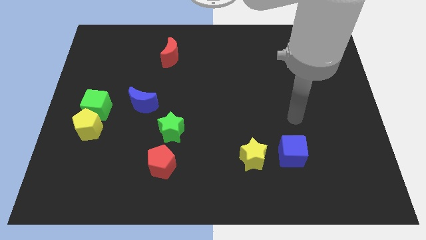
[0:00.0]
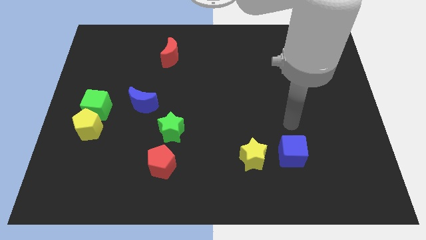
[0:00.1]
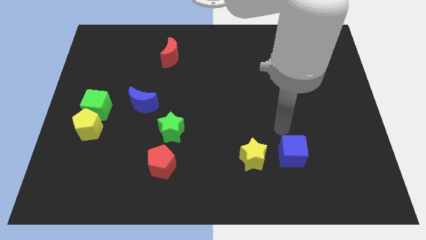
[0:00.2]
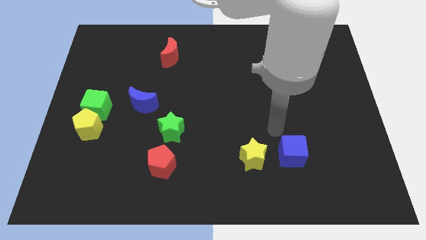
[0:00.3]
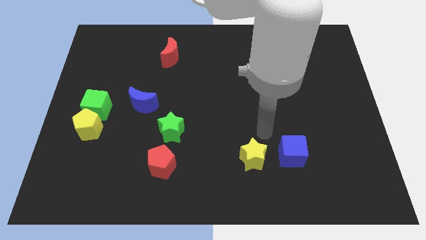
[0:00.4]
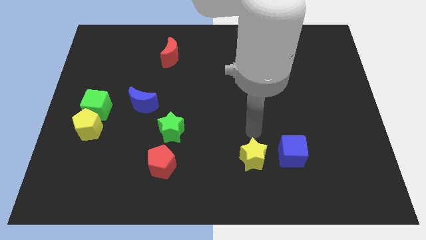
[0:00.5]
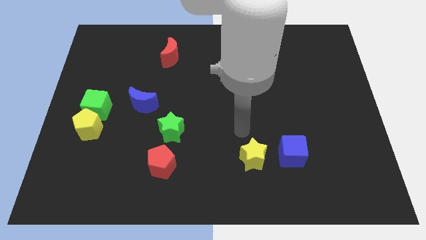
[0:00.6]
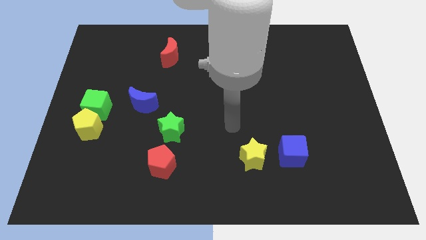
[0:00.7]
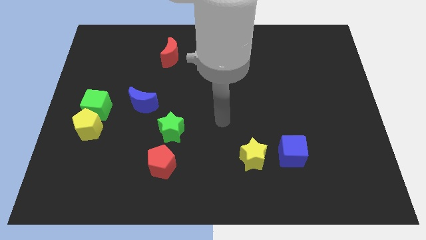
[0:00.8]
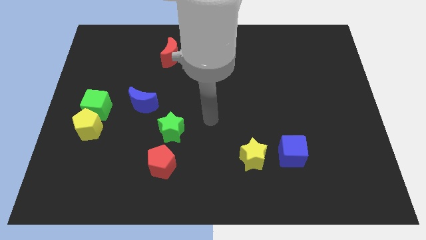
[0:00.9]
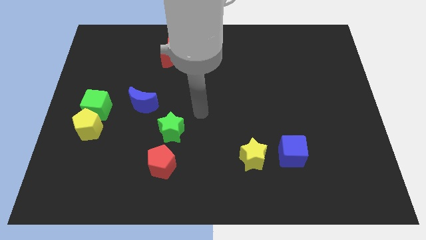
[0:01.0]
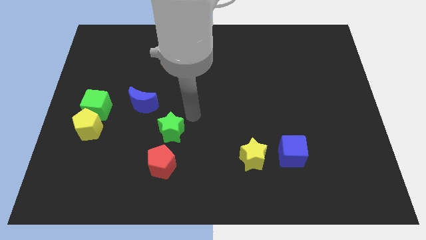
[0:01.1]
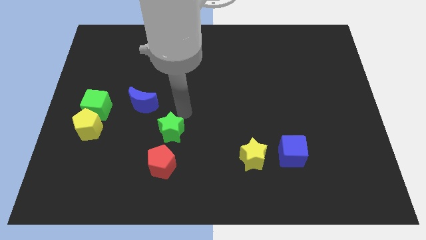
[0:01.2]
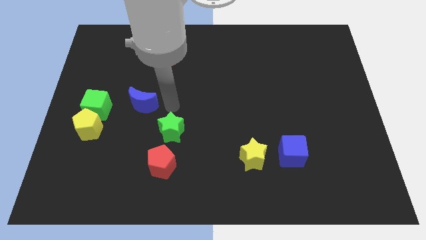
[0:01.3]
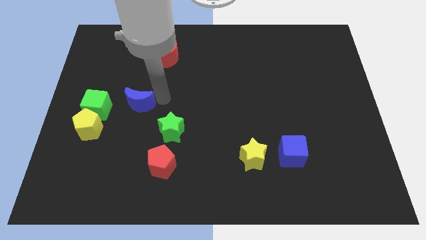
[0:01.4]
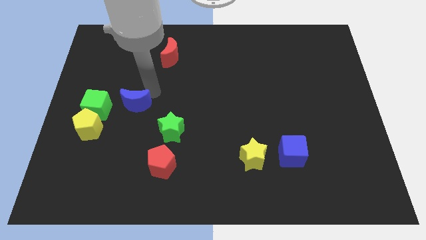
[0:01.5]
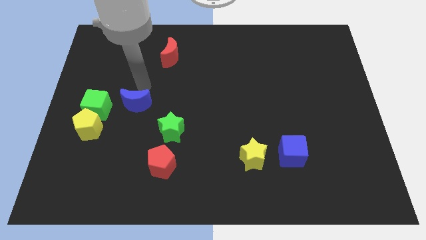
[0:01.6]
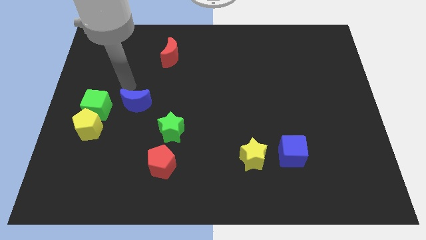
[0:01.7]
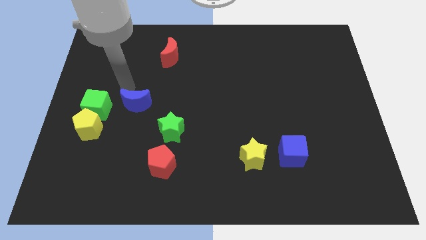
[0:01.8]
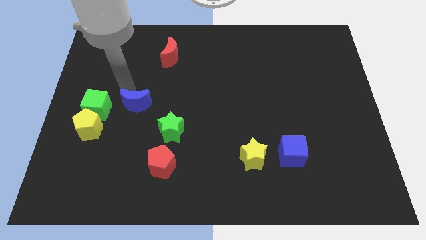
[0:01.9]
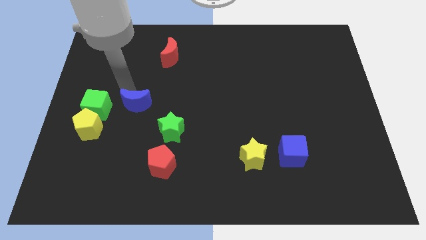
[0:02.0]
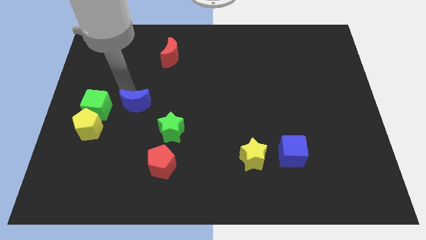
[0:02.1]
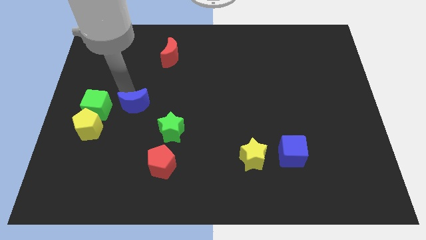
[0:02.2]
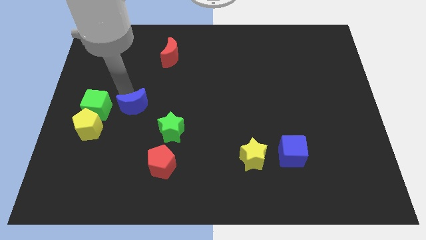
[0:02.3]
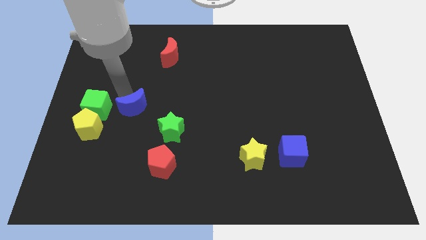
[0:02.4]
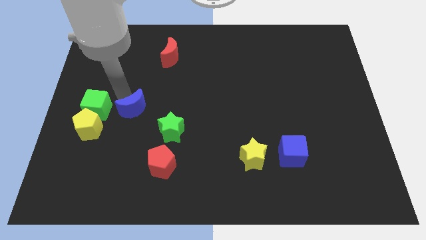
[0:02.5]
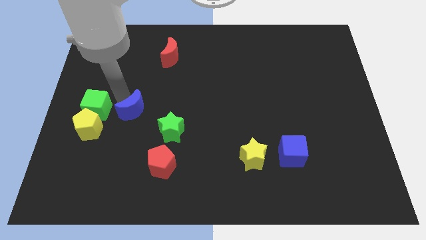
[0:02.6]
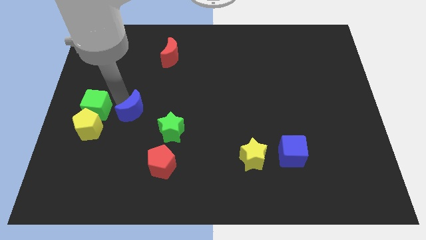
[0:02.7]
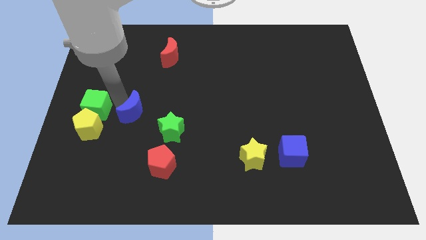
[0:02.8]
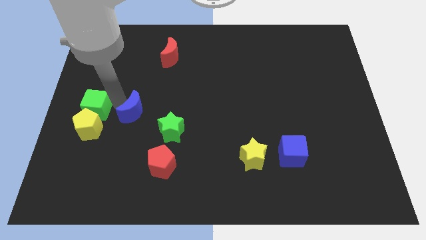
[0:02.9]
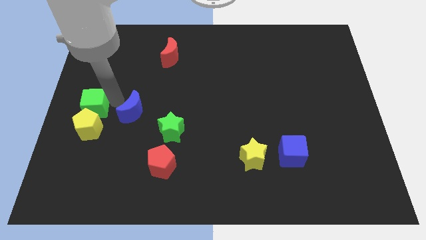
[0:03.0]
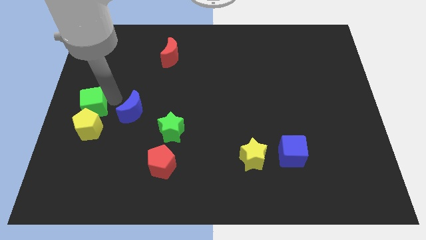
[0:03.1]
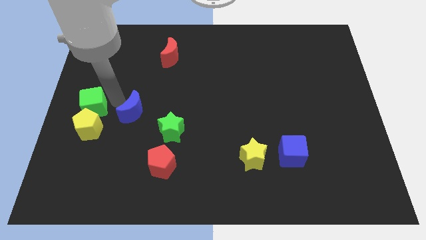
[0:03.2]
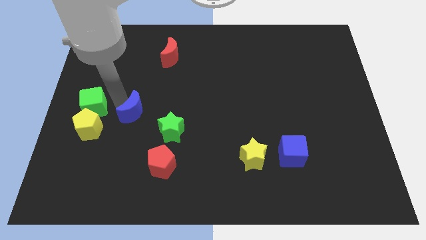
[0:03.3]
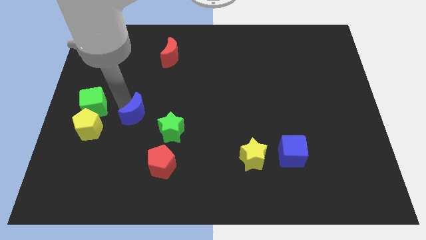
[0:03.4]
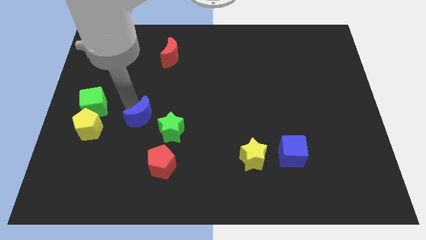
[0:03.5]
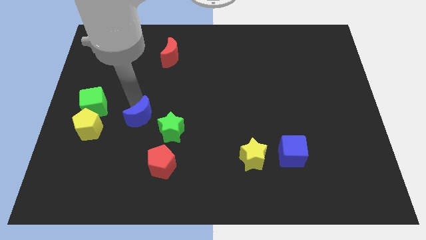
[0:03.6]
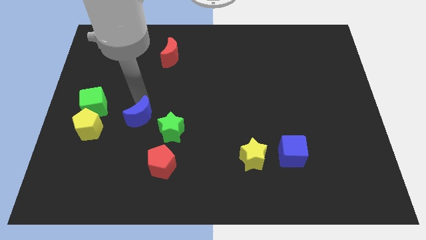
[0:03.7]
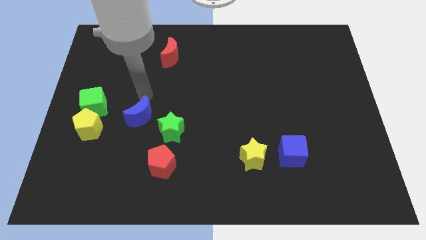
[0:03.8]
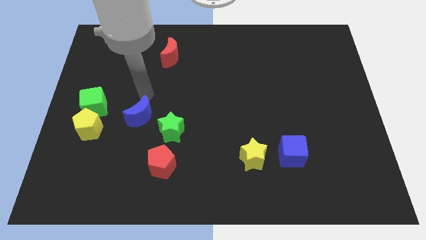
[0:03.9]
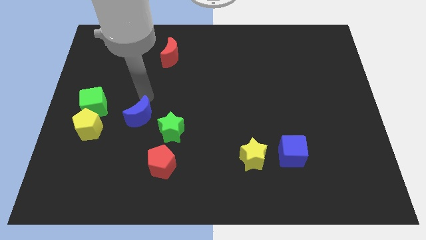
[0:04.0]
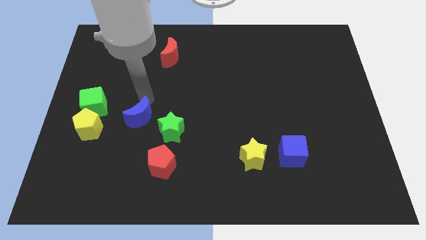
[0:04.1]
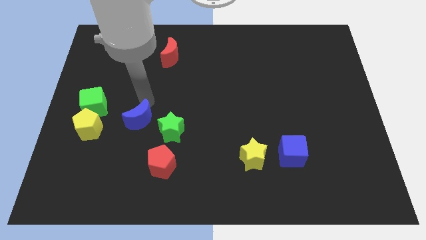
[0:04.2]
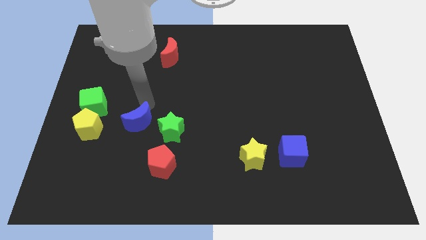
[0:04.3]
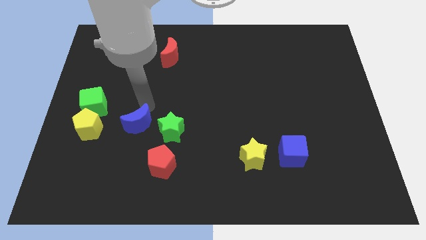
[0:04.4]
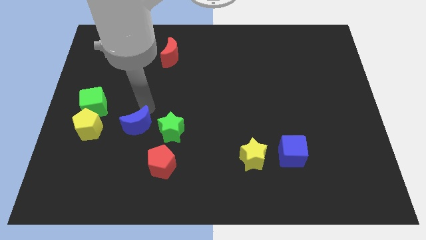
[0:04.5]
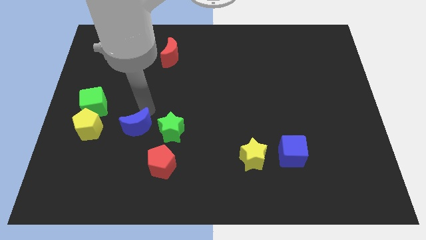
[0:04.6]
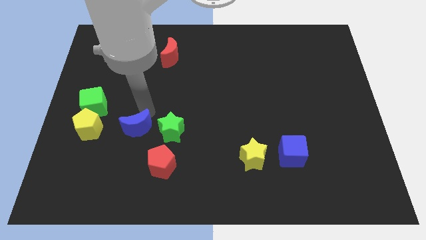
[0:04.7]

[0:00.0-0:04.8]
slightly push the blue moon down

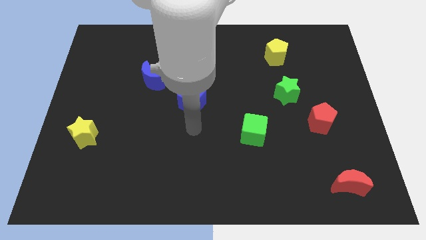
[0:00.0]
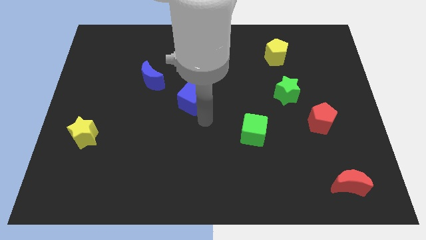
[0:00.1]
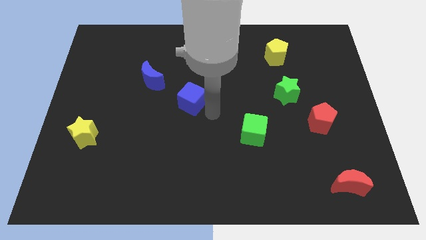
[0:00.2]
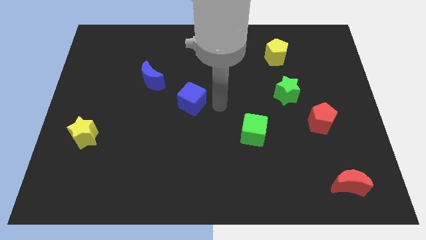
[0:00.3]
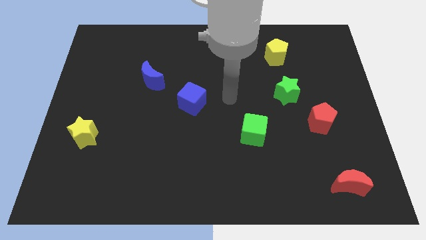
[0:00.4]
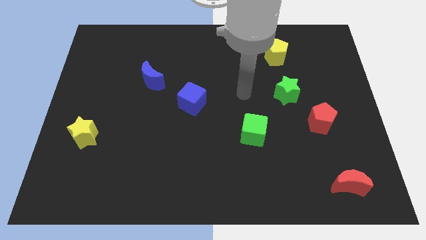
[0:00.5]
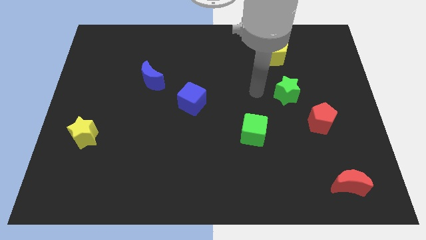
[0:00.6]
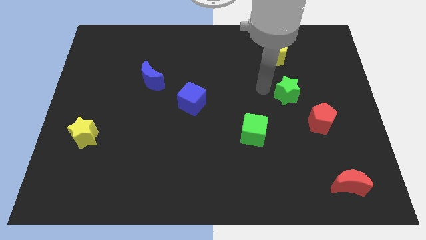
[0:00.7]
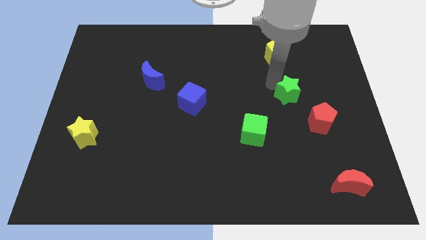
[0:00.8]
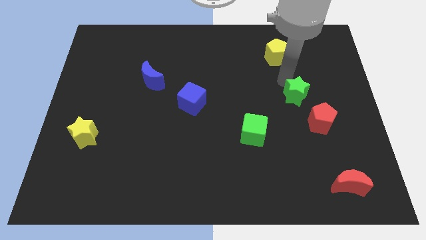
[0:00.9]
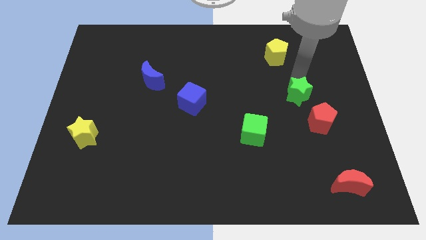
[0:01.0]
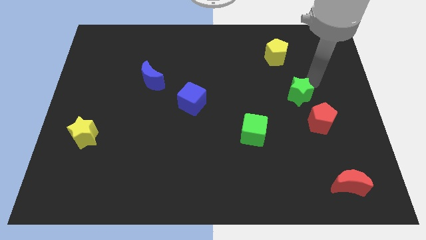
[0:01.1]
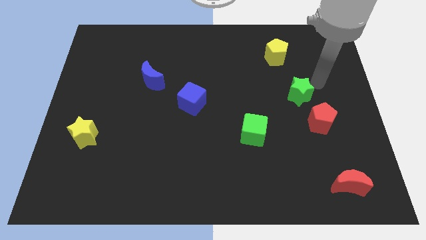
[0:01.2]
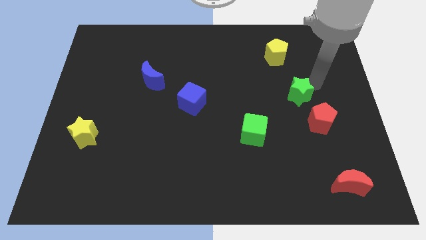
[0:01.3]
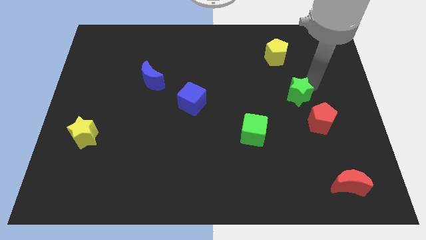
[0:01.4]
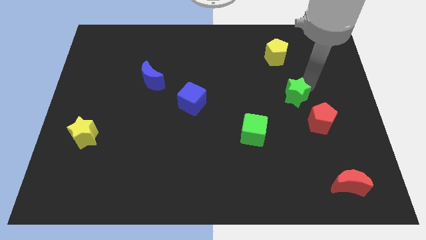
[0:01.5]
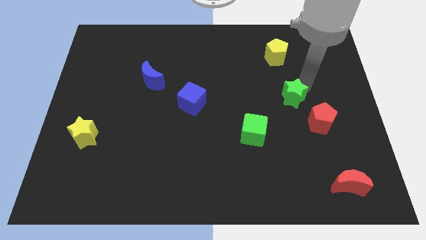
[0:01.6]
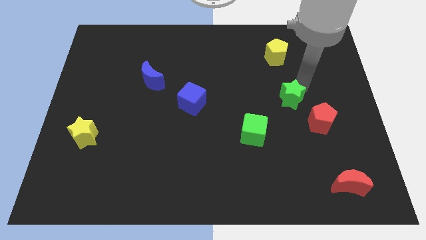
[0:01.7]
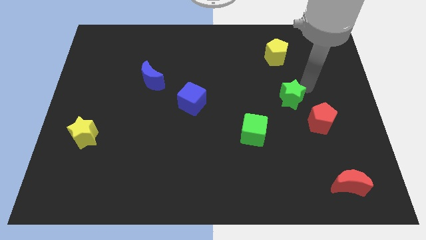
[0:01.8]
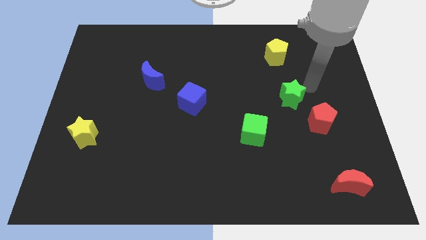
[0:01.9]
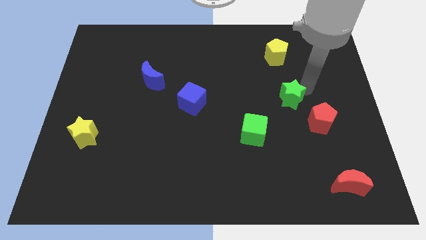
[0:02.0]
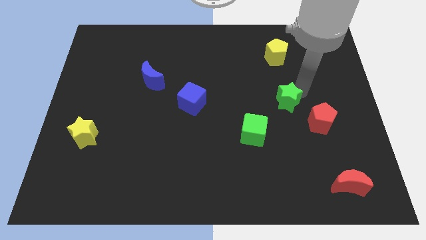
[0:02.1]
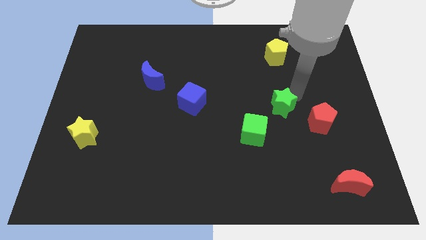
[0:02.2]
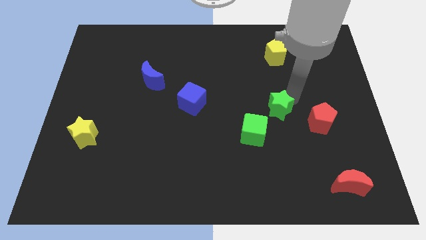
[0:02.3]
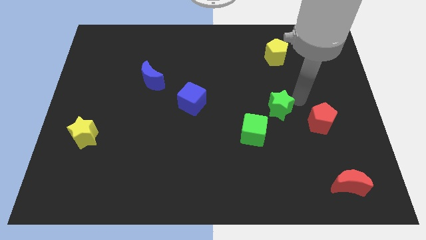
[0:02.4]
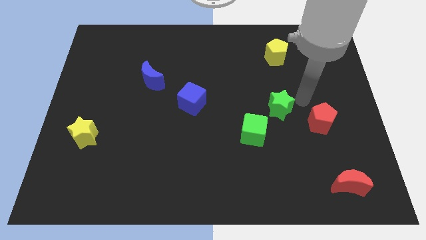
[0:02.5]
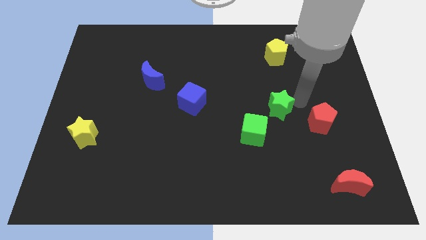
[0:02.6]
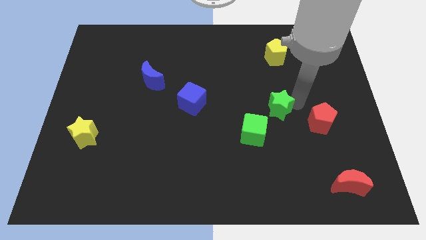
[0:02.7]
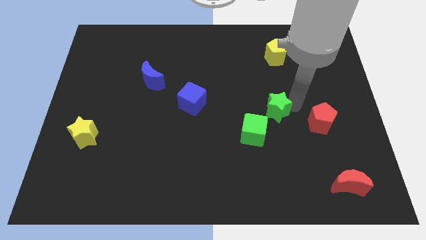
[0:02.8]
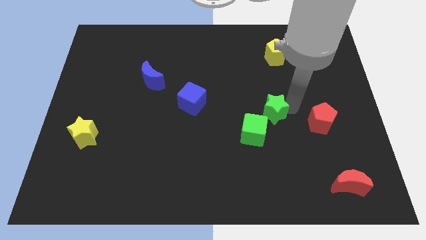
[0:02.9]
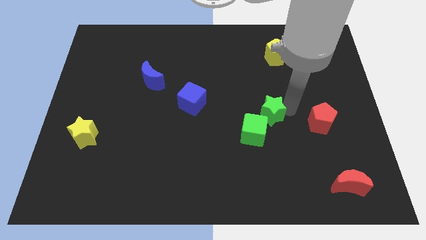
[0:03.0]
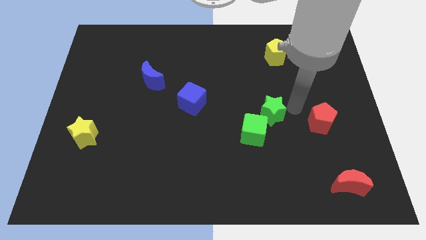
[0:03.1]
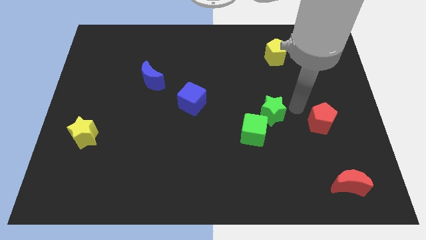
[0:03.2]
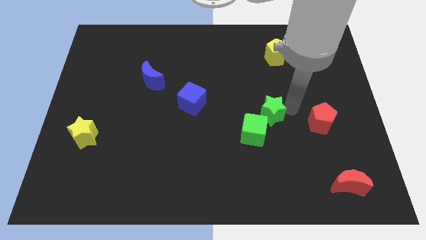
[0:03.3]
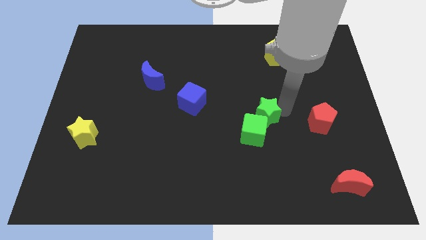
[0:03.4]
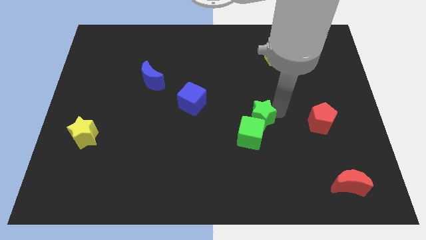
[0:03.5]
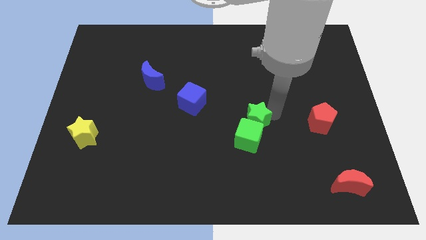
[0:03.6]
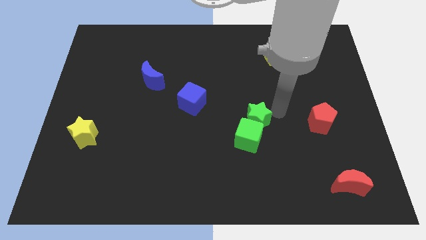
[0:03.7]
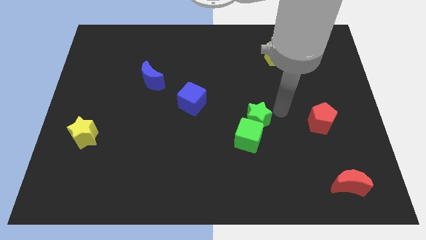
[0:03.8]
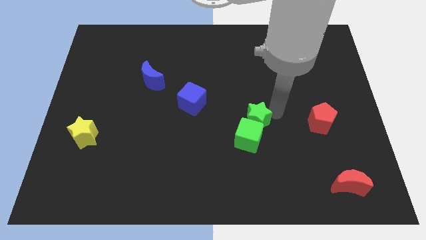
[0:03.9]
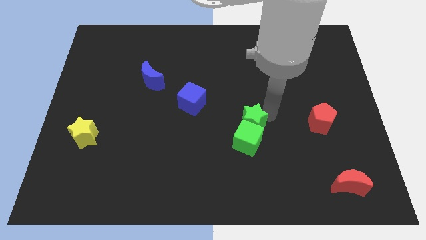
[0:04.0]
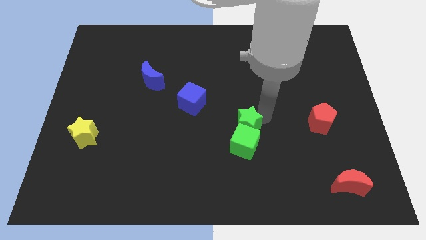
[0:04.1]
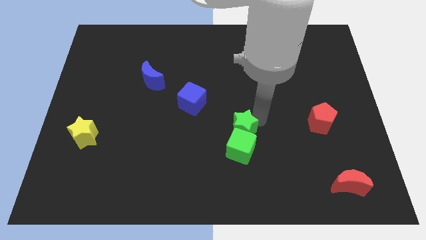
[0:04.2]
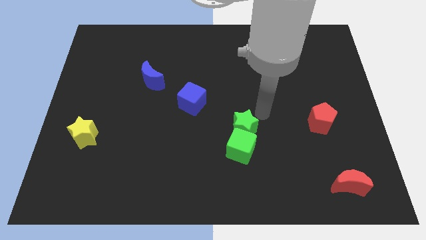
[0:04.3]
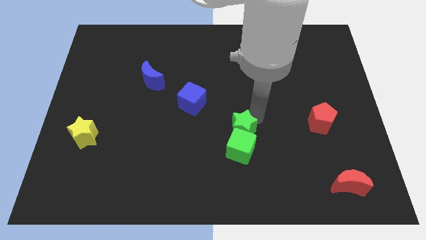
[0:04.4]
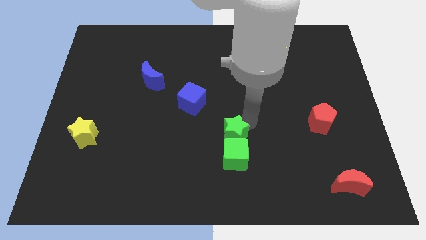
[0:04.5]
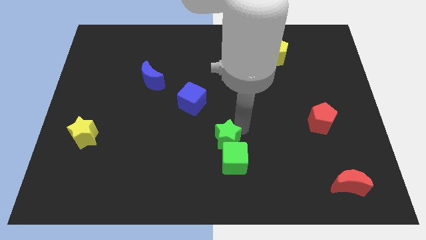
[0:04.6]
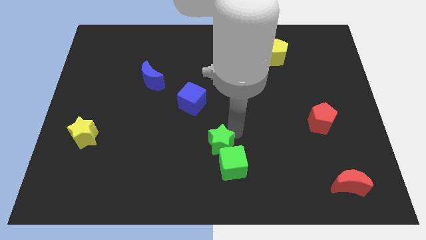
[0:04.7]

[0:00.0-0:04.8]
slide the green star diagonally down and left
